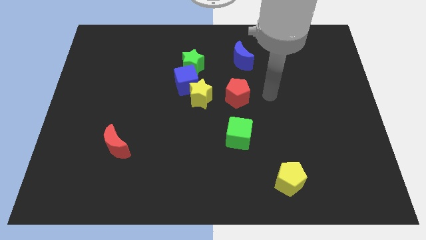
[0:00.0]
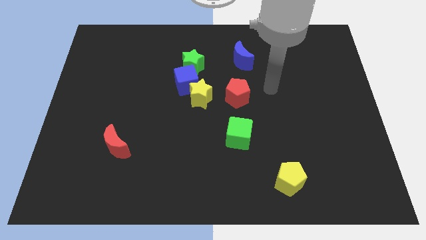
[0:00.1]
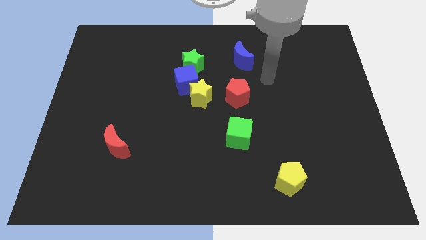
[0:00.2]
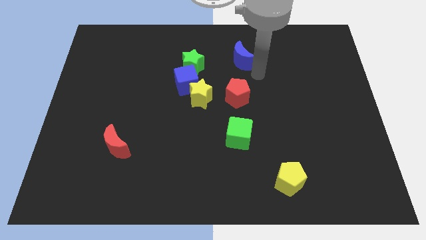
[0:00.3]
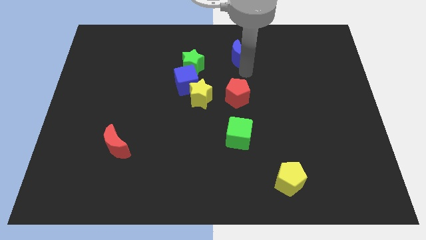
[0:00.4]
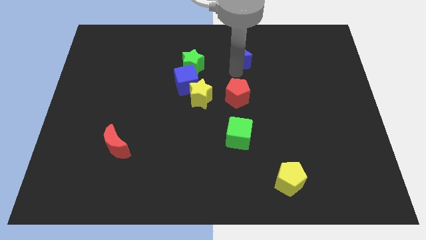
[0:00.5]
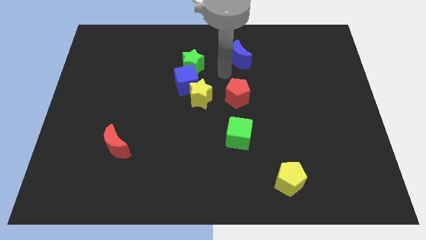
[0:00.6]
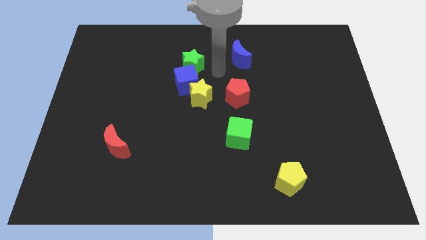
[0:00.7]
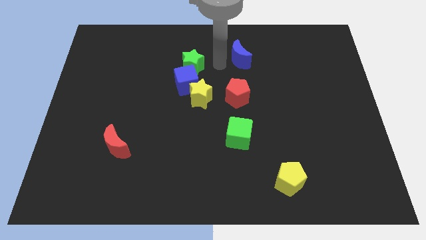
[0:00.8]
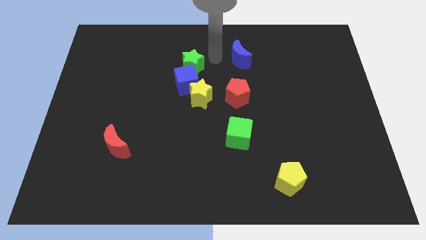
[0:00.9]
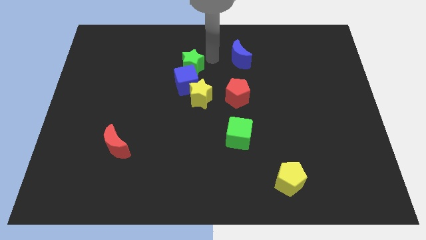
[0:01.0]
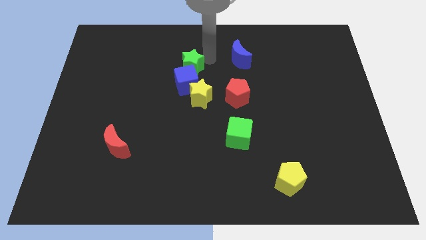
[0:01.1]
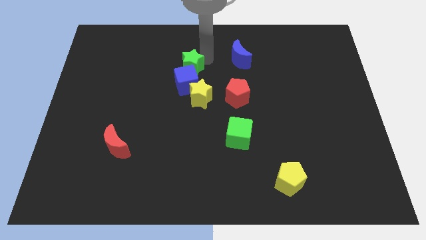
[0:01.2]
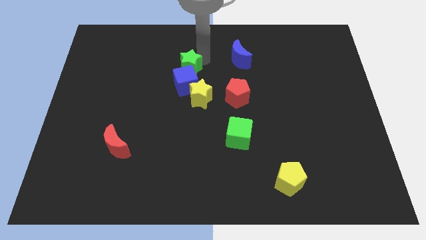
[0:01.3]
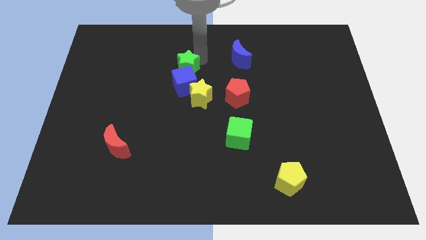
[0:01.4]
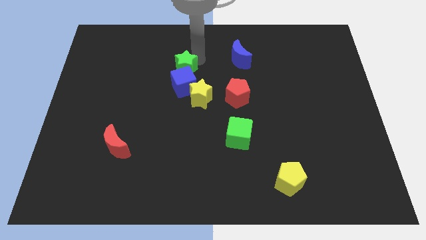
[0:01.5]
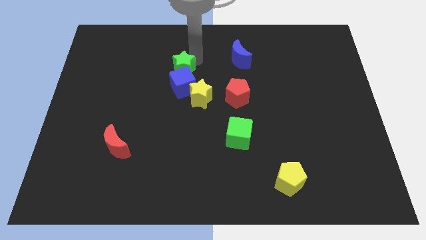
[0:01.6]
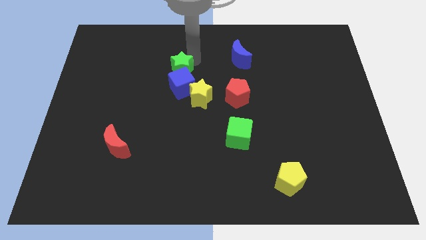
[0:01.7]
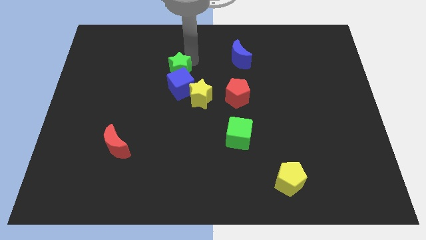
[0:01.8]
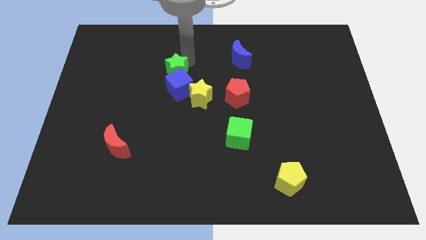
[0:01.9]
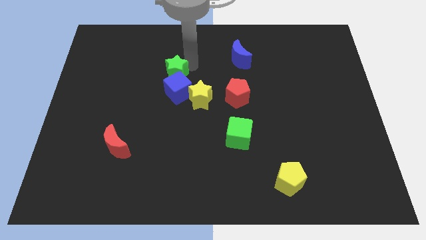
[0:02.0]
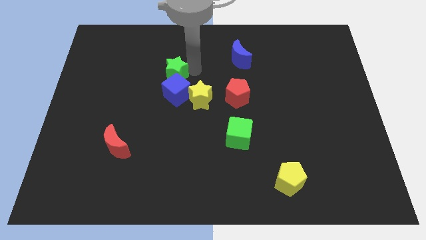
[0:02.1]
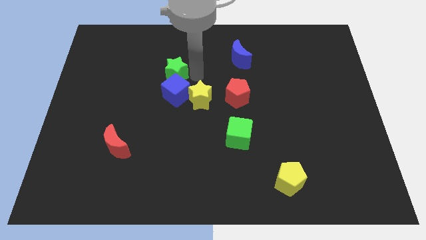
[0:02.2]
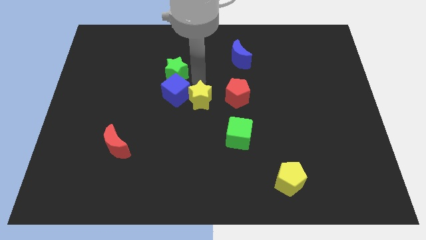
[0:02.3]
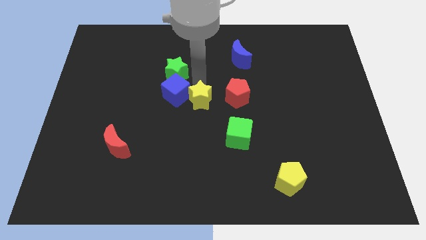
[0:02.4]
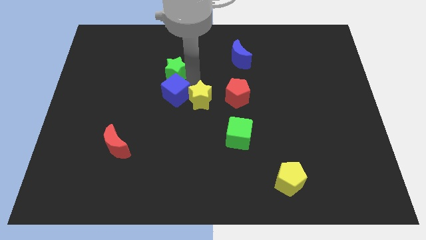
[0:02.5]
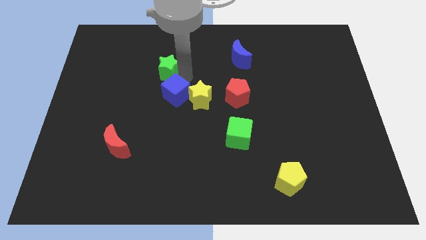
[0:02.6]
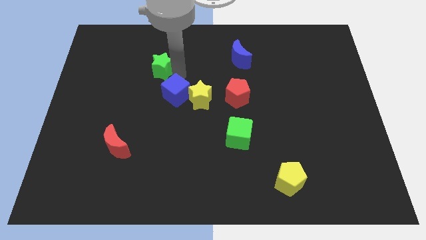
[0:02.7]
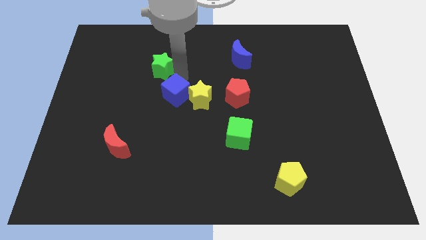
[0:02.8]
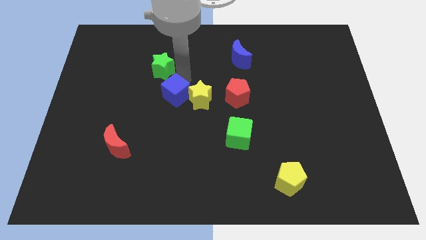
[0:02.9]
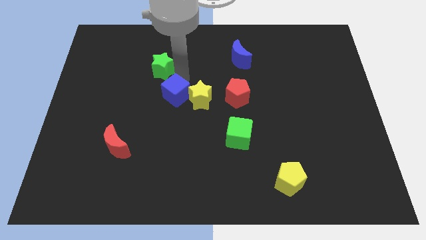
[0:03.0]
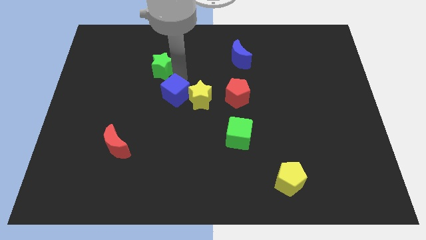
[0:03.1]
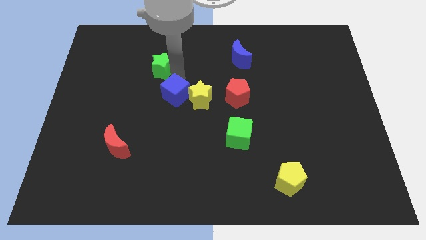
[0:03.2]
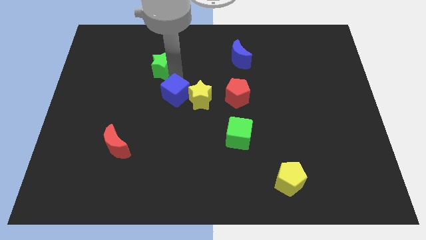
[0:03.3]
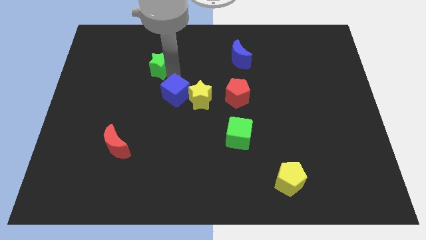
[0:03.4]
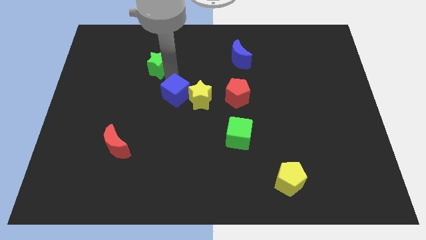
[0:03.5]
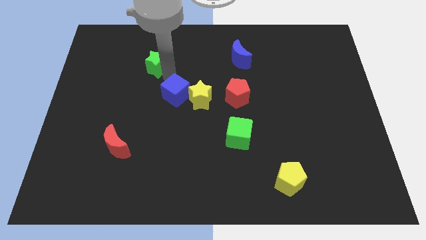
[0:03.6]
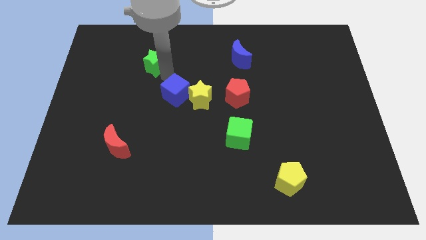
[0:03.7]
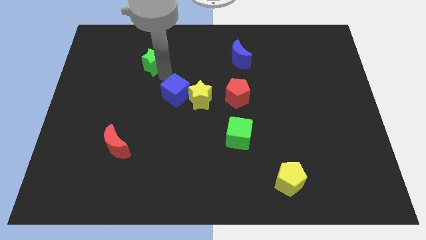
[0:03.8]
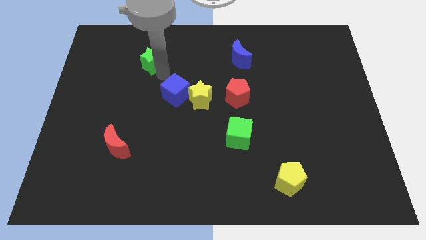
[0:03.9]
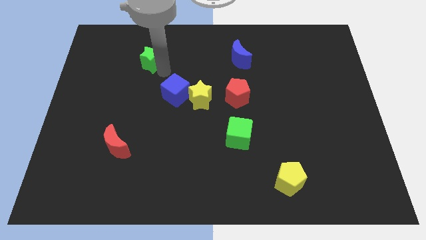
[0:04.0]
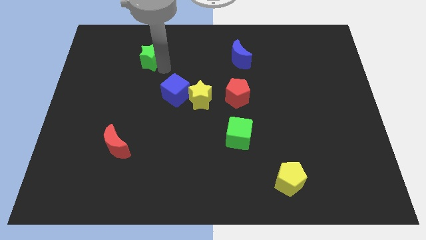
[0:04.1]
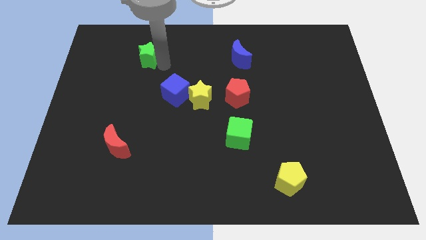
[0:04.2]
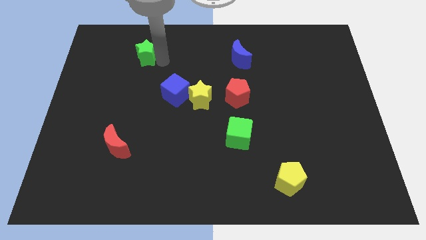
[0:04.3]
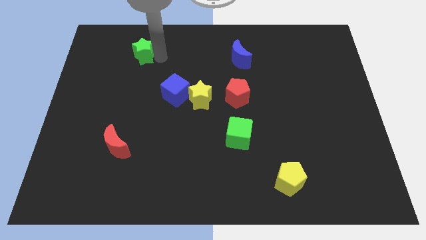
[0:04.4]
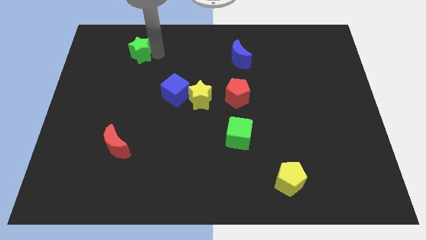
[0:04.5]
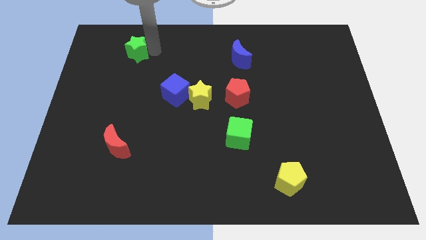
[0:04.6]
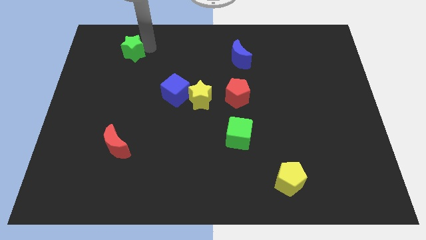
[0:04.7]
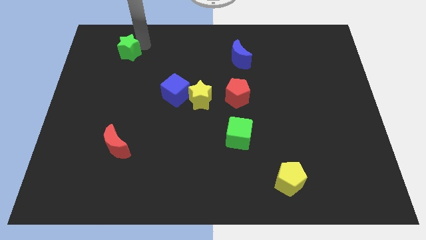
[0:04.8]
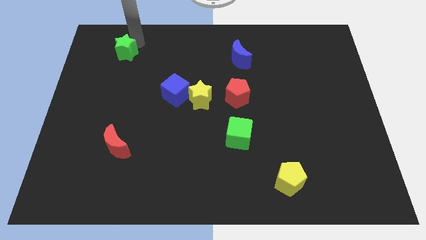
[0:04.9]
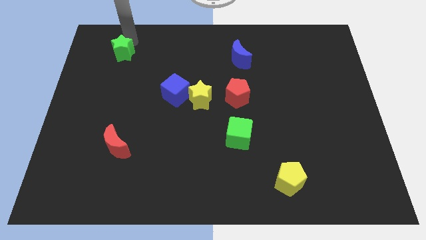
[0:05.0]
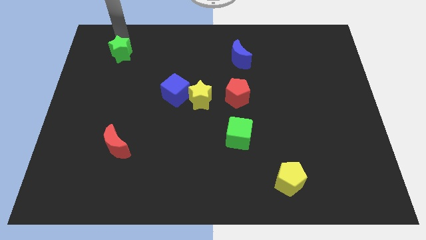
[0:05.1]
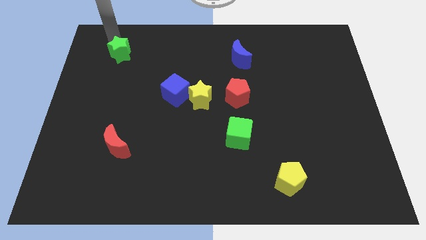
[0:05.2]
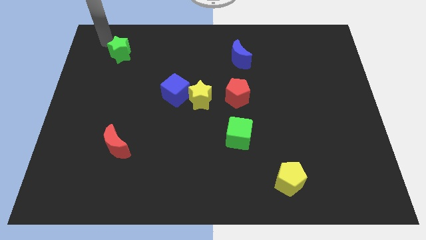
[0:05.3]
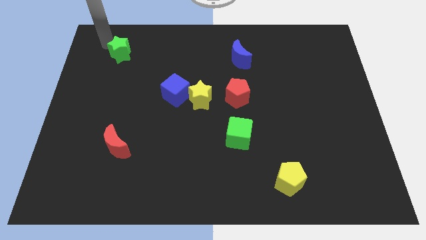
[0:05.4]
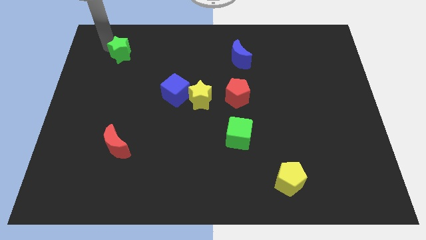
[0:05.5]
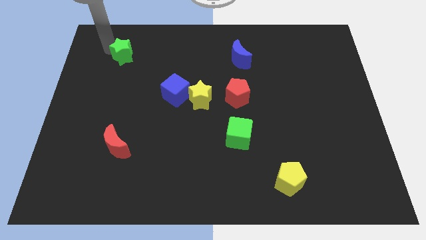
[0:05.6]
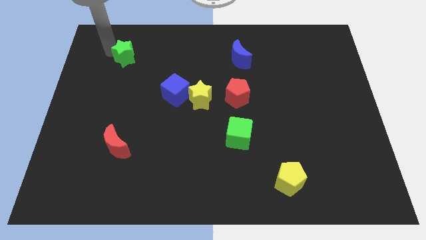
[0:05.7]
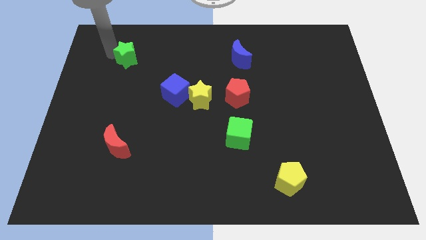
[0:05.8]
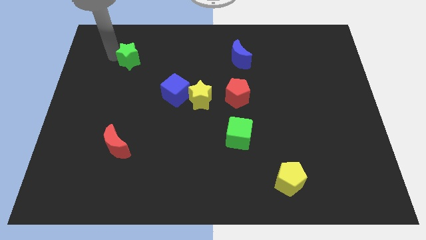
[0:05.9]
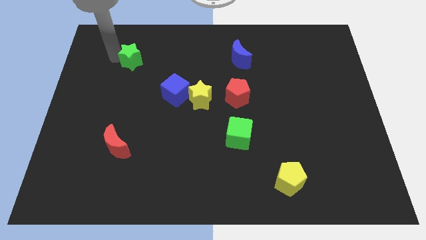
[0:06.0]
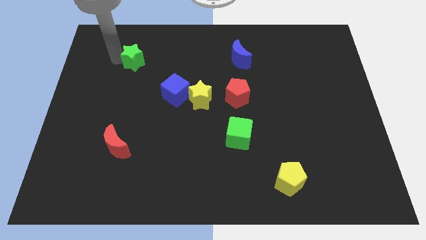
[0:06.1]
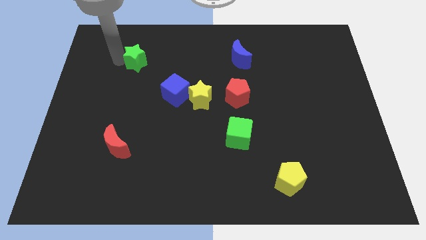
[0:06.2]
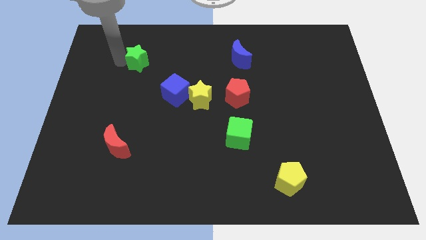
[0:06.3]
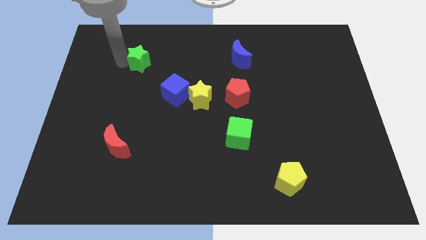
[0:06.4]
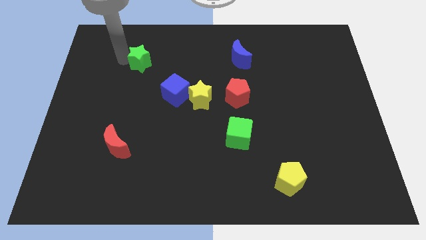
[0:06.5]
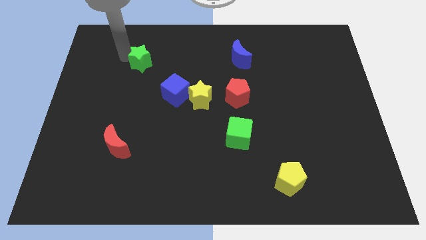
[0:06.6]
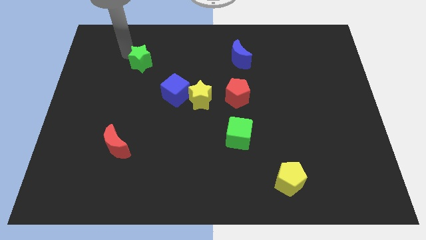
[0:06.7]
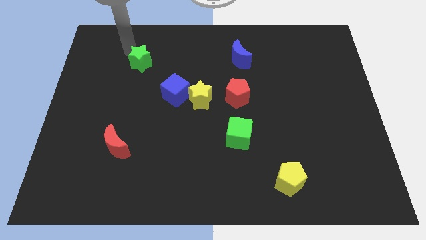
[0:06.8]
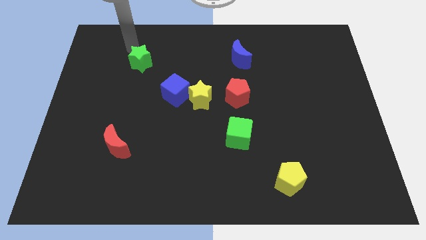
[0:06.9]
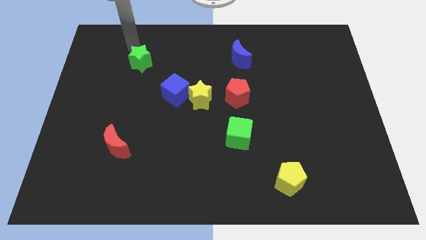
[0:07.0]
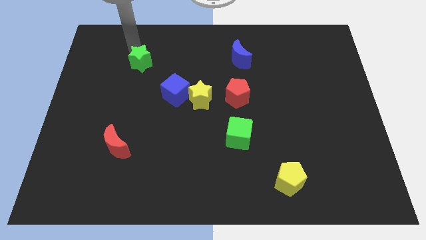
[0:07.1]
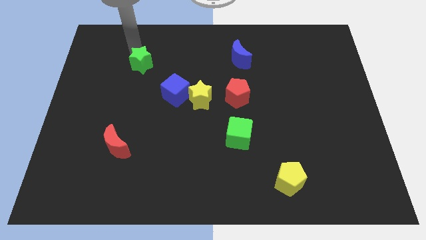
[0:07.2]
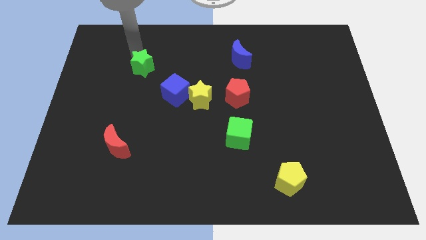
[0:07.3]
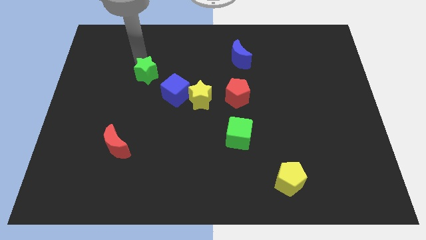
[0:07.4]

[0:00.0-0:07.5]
push the green star a little down and left

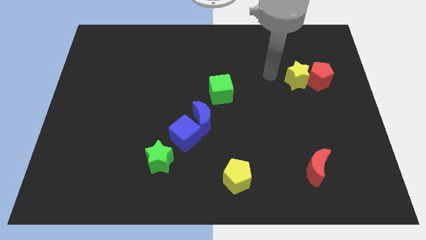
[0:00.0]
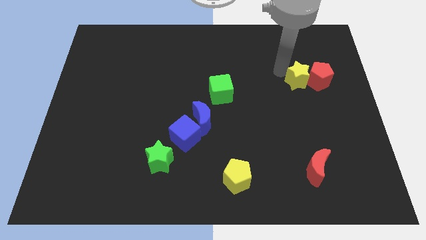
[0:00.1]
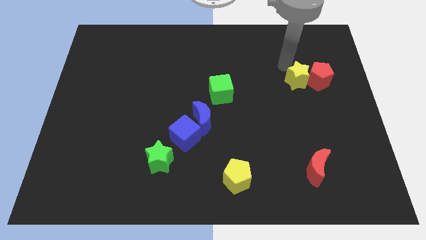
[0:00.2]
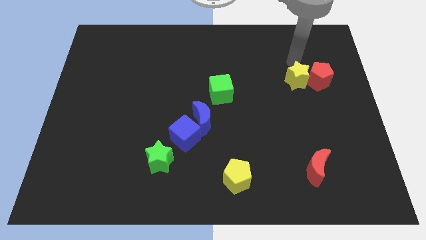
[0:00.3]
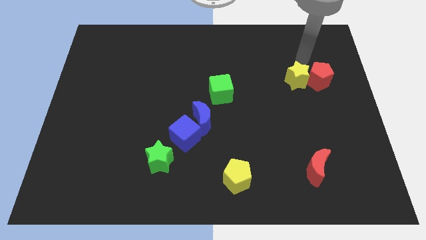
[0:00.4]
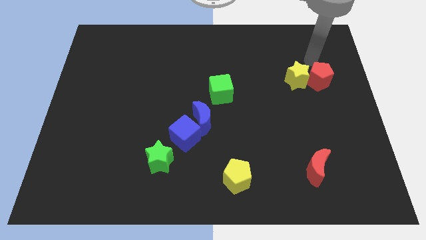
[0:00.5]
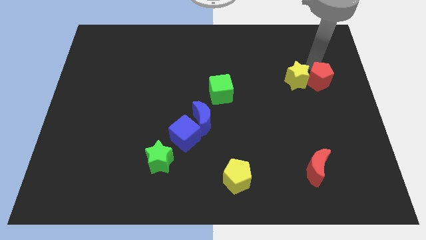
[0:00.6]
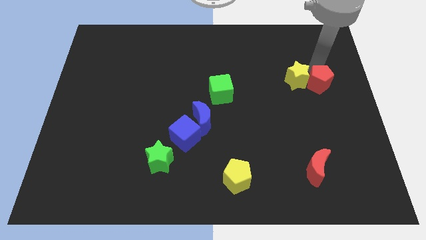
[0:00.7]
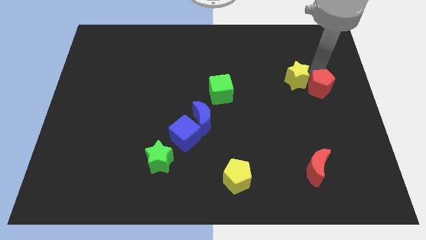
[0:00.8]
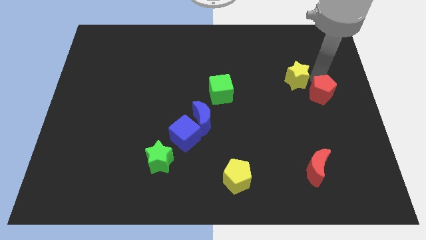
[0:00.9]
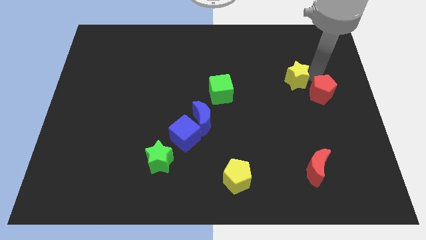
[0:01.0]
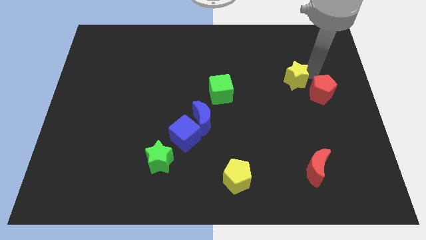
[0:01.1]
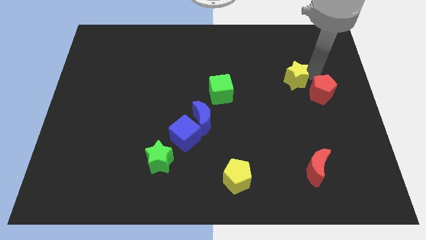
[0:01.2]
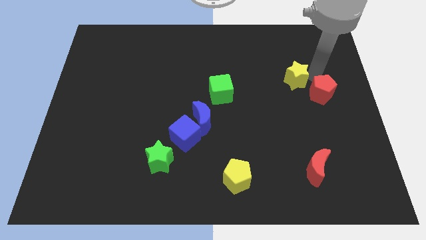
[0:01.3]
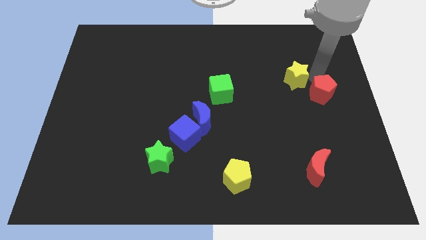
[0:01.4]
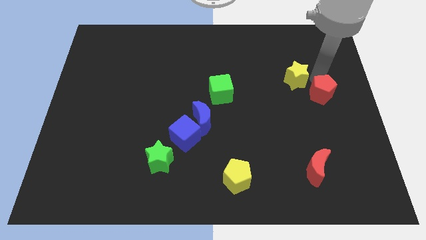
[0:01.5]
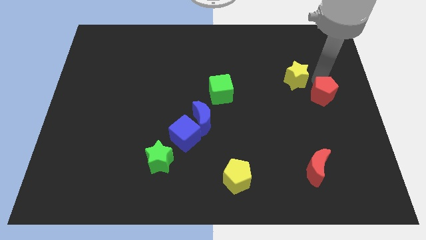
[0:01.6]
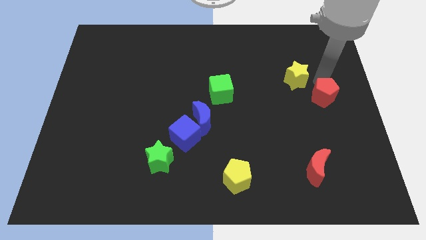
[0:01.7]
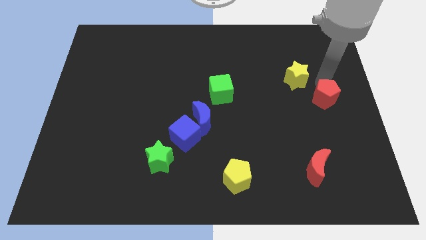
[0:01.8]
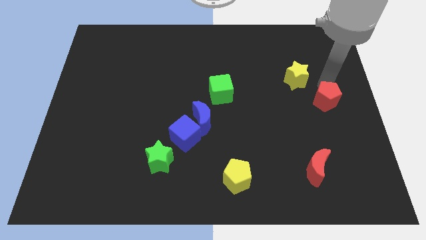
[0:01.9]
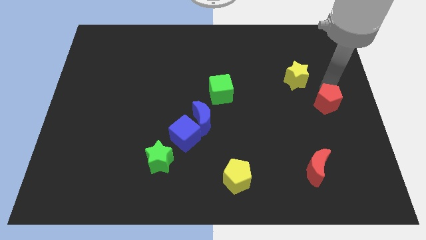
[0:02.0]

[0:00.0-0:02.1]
move the red pentagon slightly downwards
